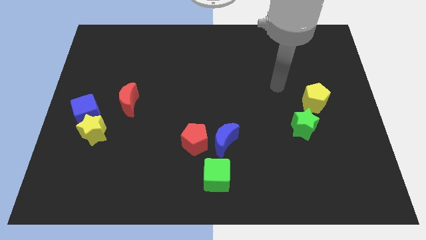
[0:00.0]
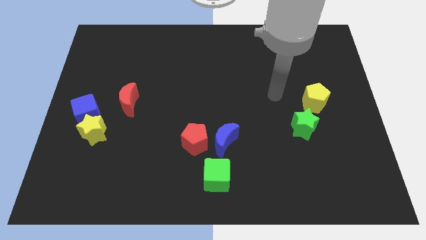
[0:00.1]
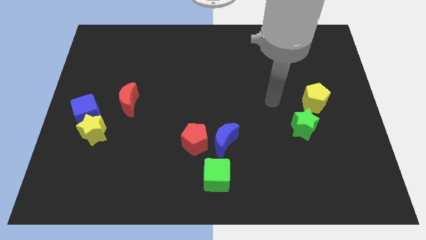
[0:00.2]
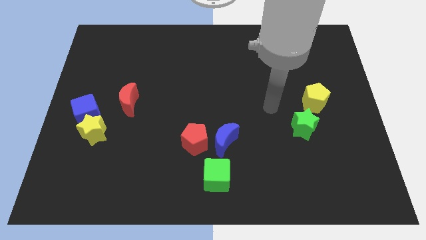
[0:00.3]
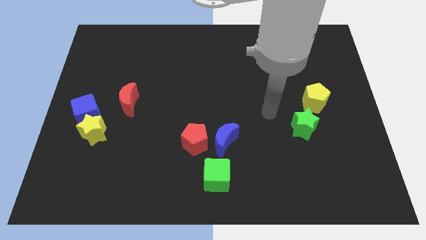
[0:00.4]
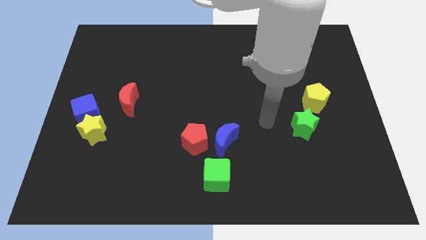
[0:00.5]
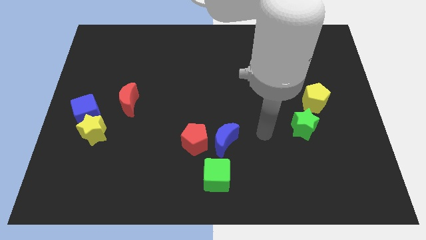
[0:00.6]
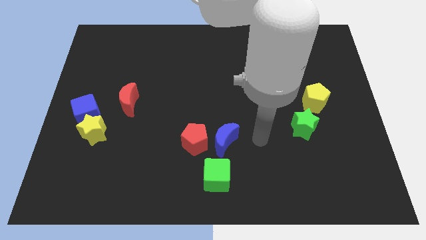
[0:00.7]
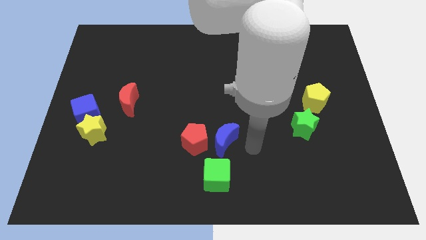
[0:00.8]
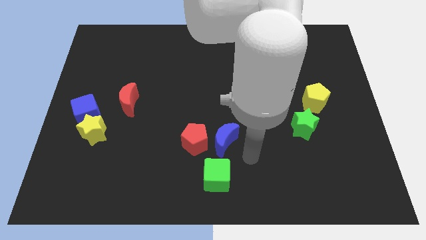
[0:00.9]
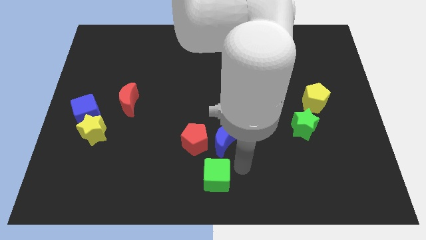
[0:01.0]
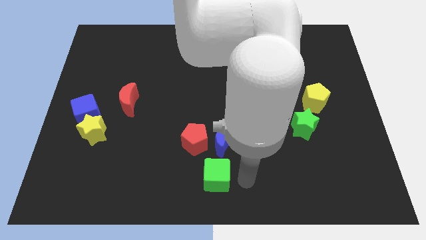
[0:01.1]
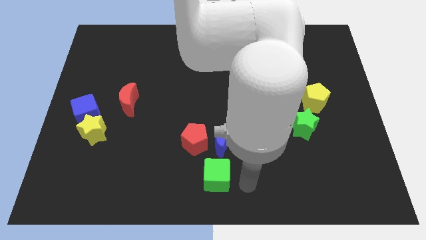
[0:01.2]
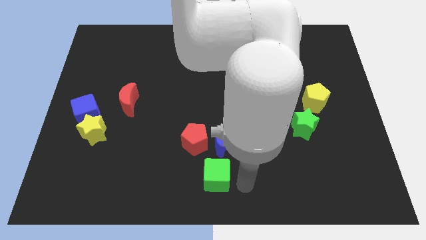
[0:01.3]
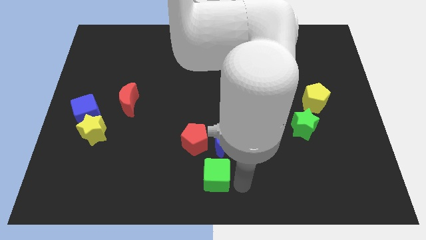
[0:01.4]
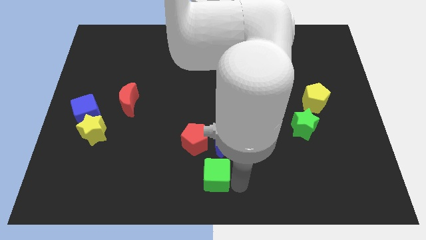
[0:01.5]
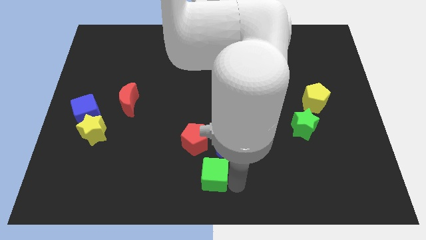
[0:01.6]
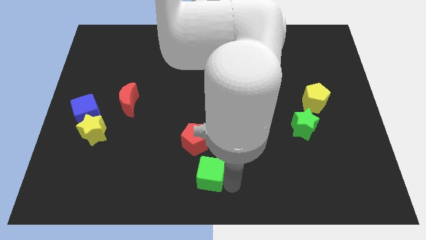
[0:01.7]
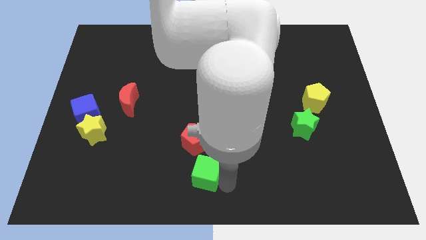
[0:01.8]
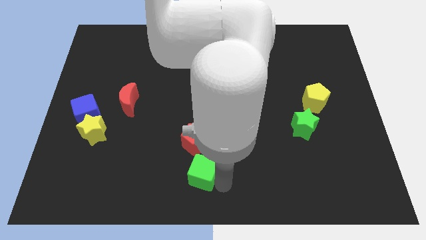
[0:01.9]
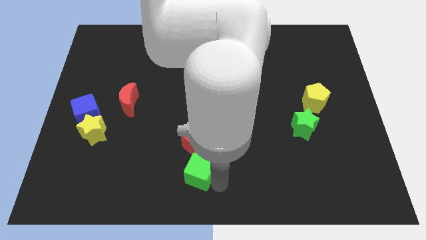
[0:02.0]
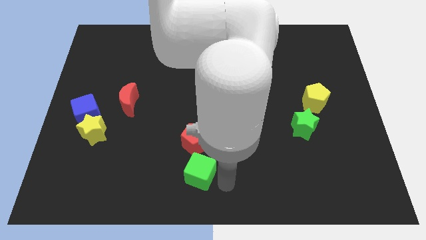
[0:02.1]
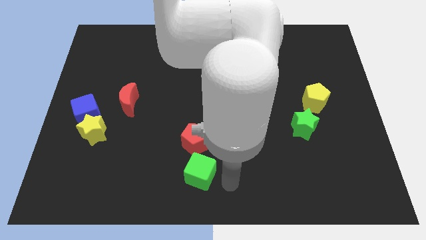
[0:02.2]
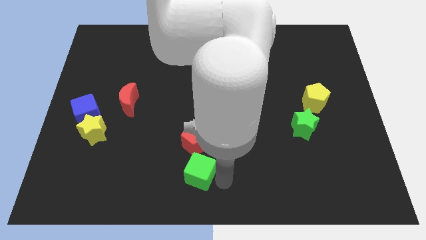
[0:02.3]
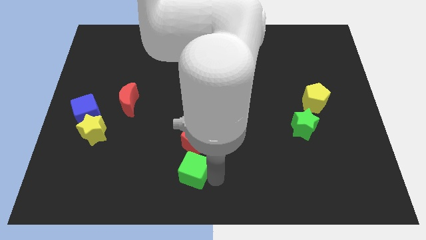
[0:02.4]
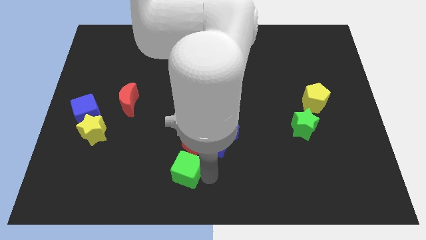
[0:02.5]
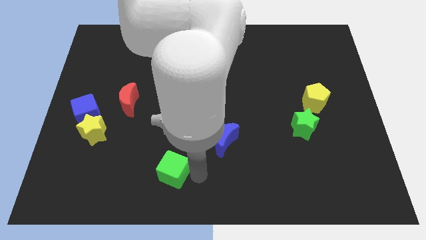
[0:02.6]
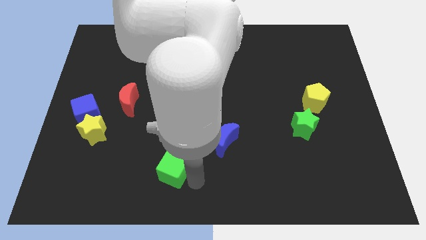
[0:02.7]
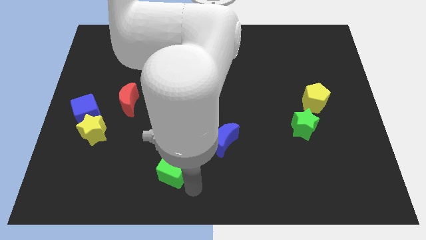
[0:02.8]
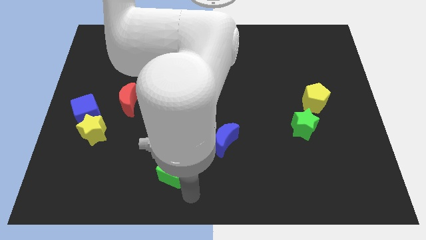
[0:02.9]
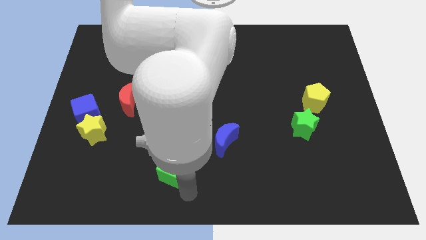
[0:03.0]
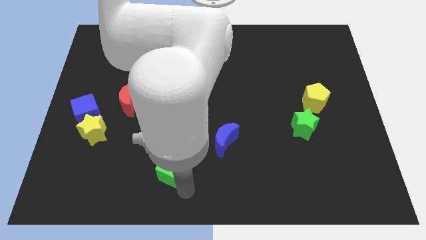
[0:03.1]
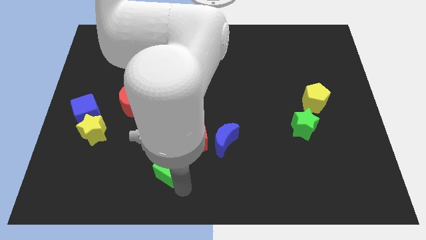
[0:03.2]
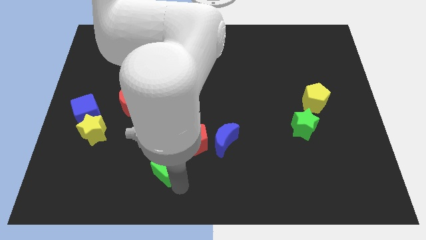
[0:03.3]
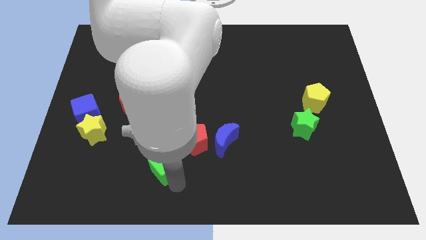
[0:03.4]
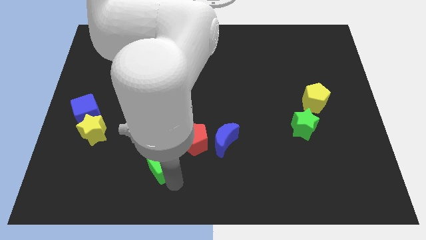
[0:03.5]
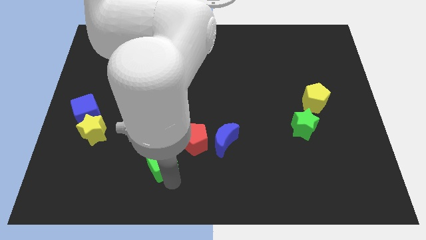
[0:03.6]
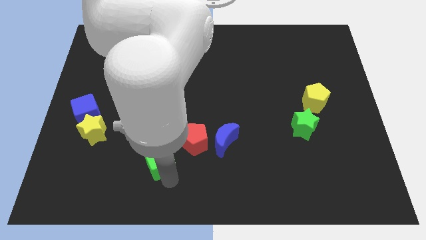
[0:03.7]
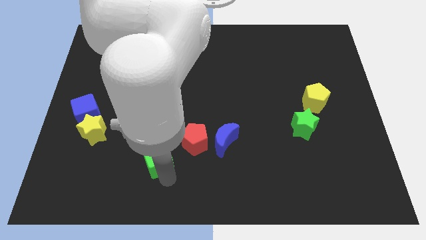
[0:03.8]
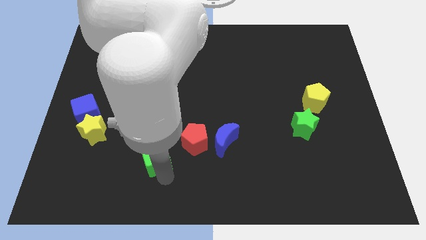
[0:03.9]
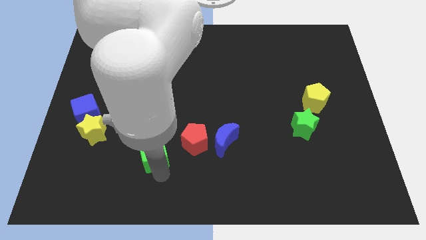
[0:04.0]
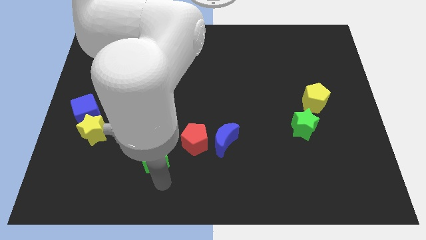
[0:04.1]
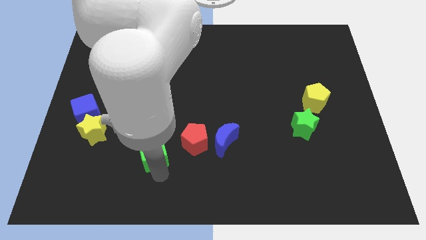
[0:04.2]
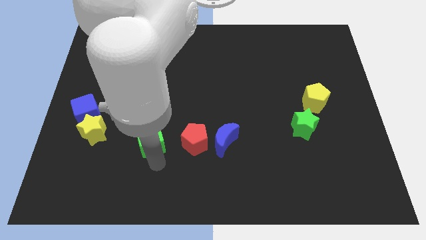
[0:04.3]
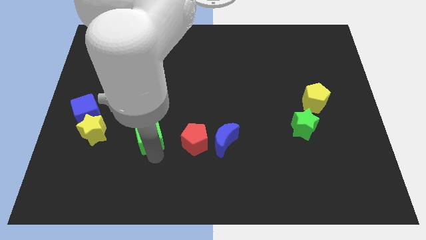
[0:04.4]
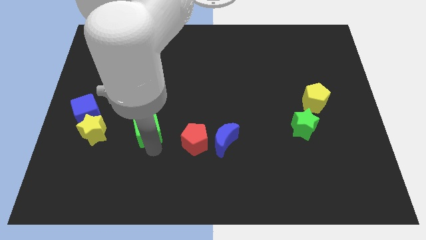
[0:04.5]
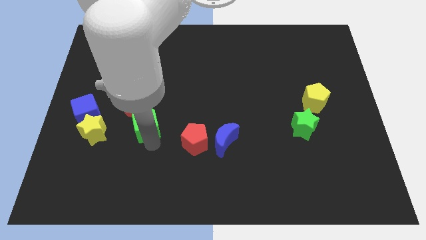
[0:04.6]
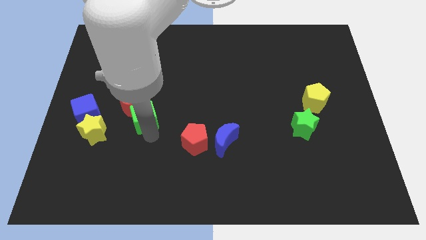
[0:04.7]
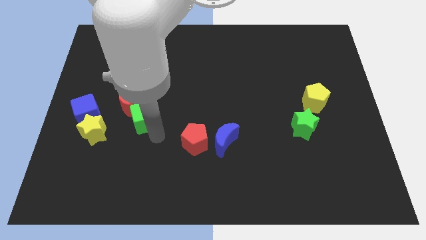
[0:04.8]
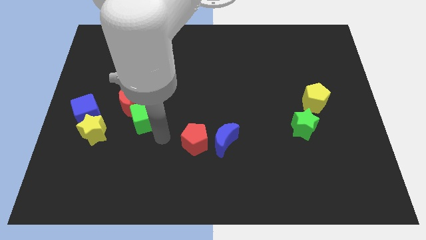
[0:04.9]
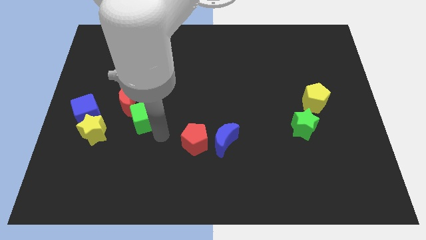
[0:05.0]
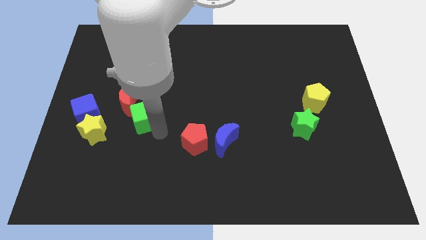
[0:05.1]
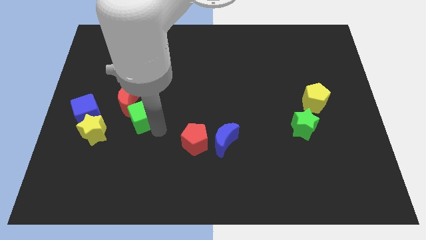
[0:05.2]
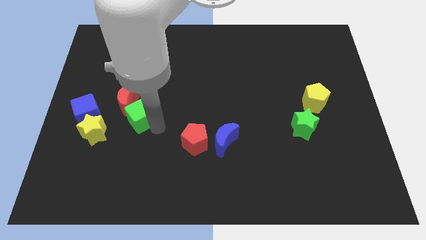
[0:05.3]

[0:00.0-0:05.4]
put the green cube close to the red moon

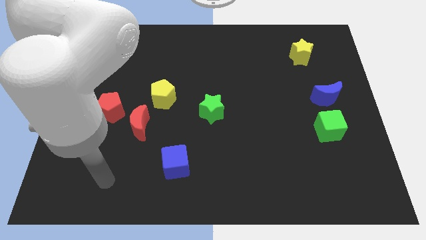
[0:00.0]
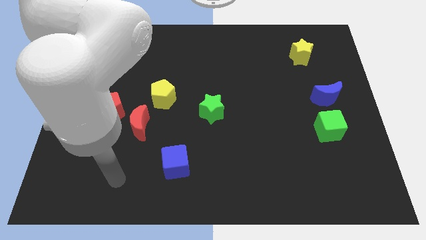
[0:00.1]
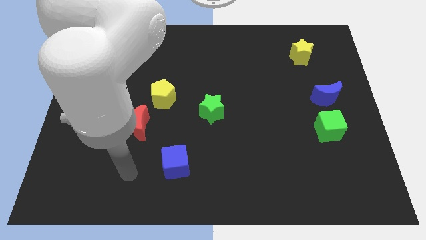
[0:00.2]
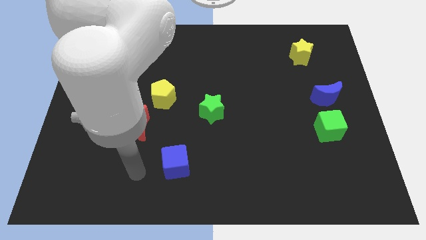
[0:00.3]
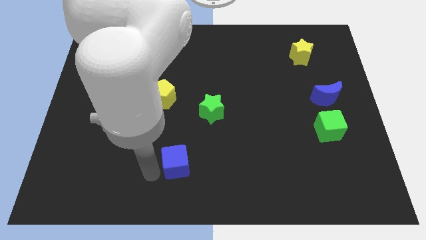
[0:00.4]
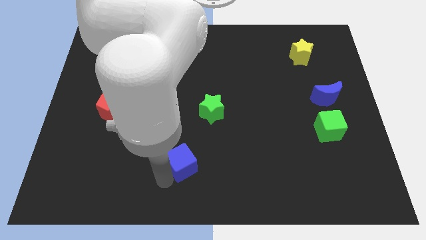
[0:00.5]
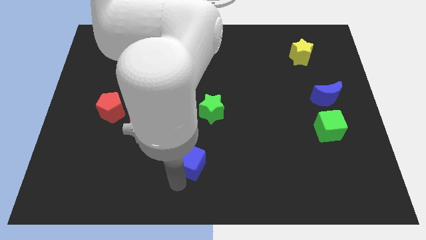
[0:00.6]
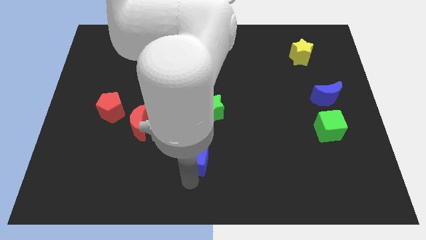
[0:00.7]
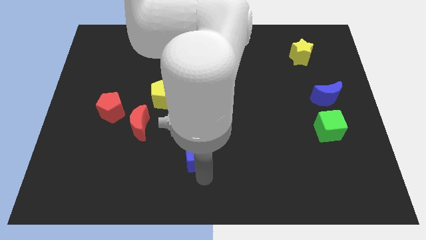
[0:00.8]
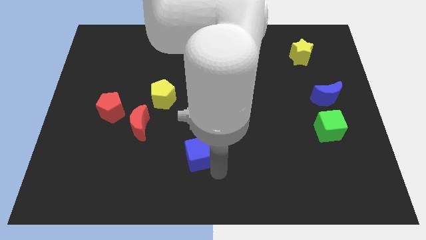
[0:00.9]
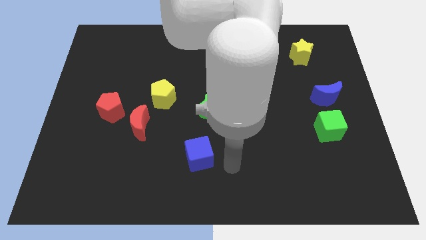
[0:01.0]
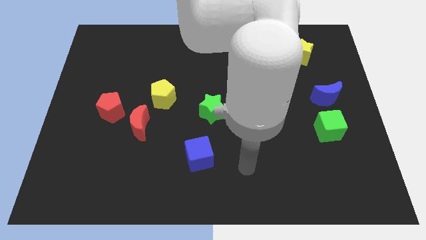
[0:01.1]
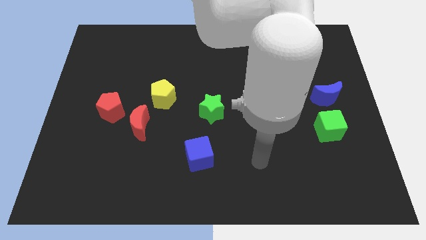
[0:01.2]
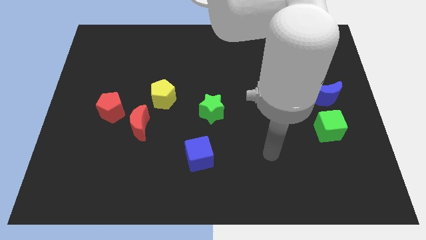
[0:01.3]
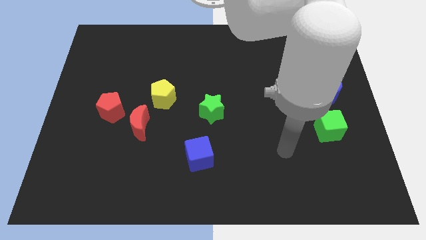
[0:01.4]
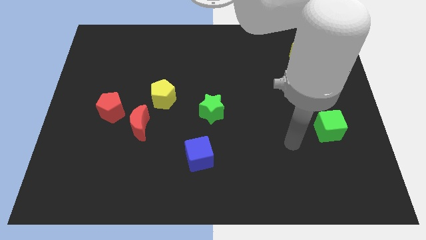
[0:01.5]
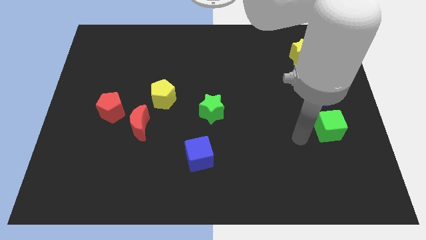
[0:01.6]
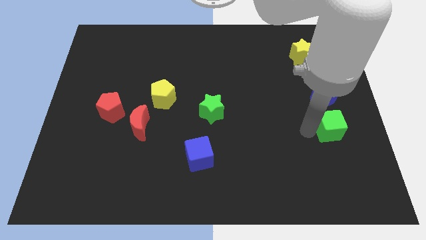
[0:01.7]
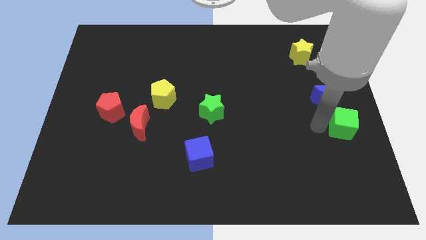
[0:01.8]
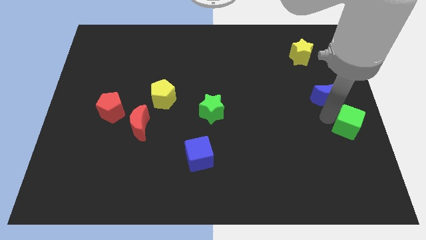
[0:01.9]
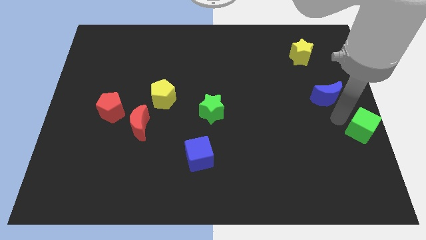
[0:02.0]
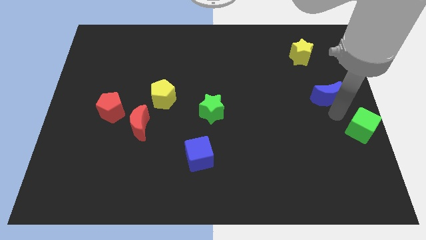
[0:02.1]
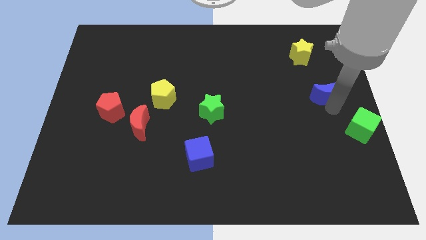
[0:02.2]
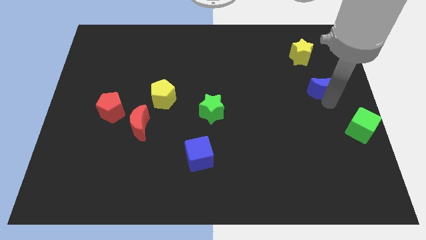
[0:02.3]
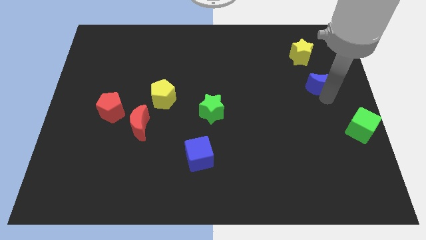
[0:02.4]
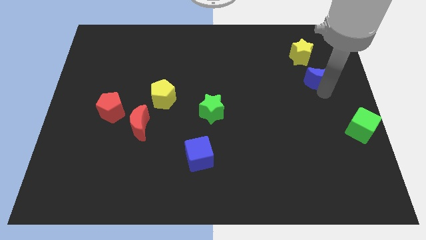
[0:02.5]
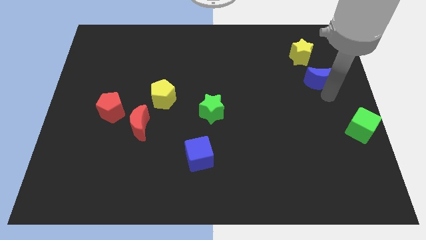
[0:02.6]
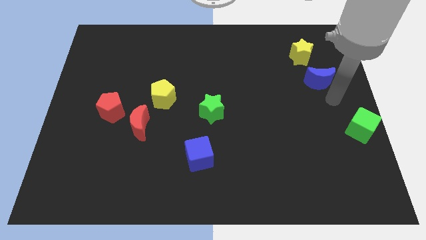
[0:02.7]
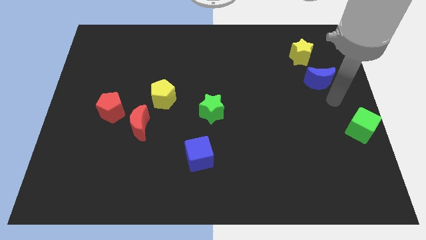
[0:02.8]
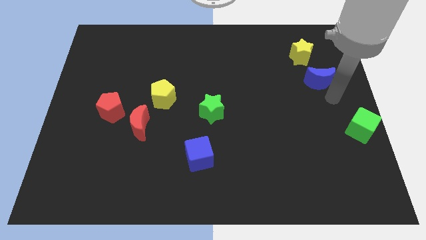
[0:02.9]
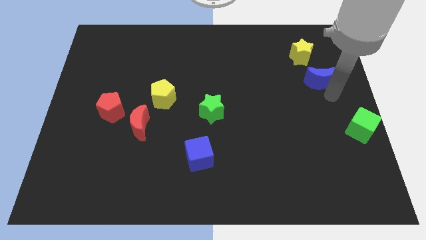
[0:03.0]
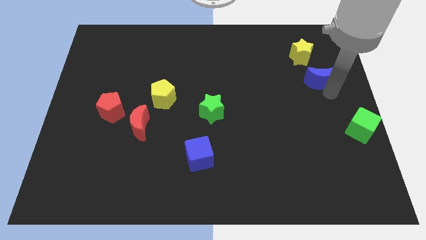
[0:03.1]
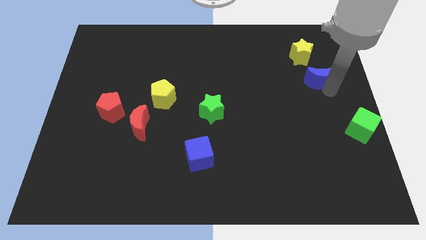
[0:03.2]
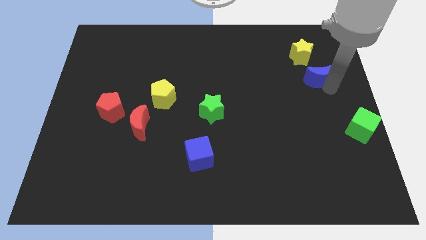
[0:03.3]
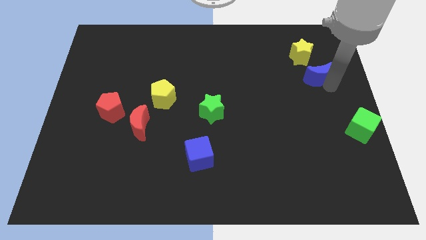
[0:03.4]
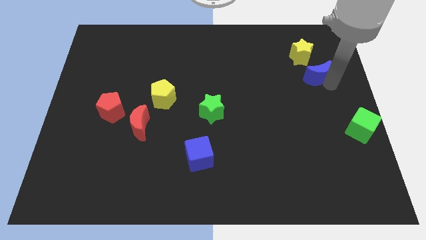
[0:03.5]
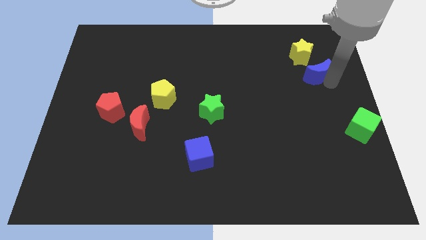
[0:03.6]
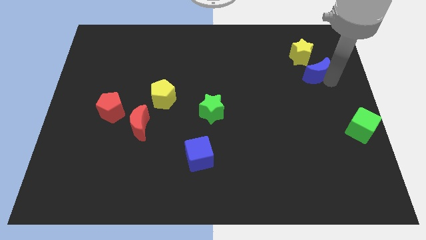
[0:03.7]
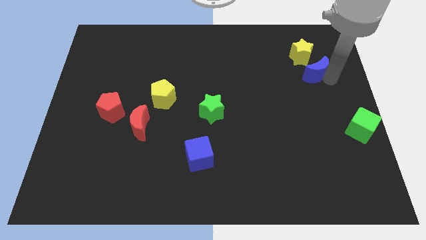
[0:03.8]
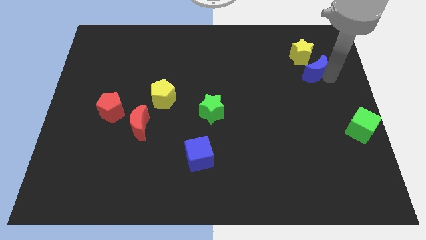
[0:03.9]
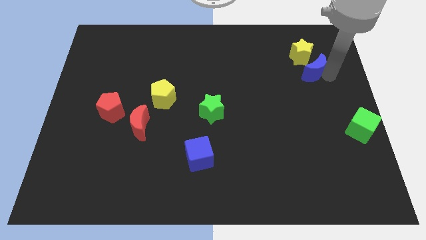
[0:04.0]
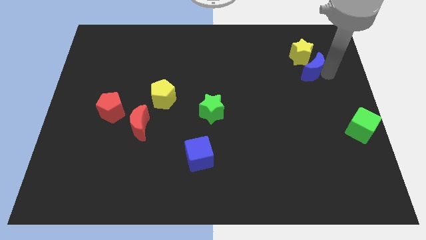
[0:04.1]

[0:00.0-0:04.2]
move the blue moon towards the yellow star
